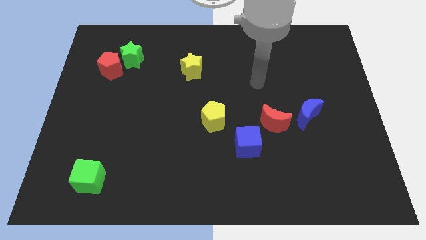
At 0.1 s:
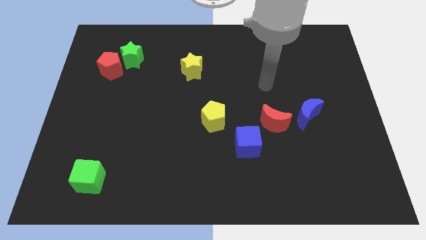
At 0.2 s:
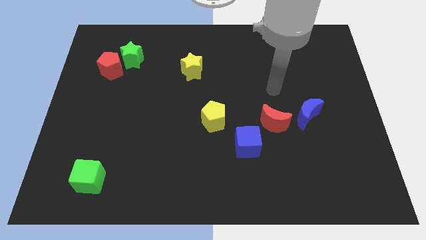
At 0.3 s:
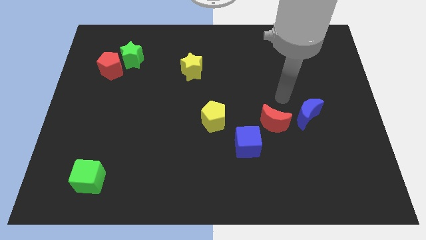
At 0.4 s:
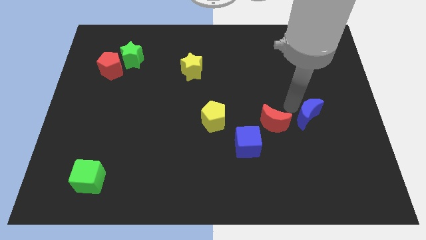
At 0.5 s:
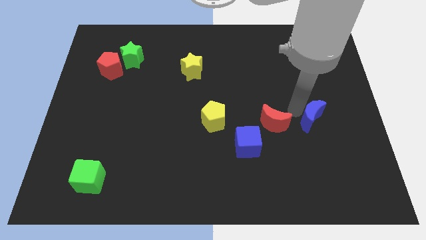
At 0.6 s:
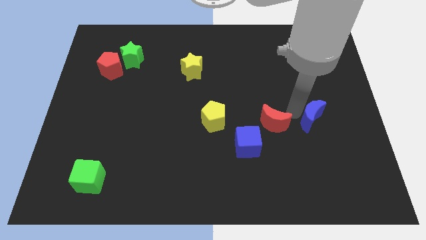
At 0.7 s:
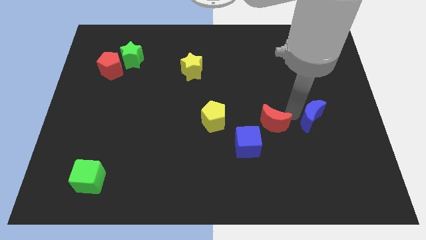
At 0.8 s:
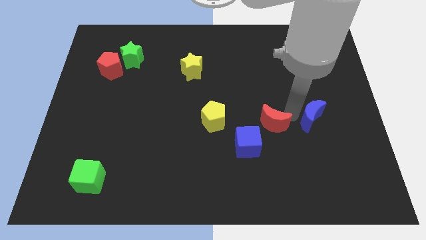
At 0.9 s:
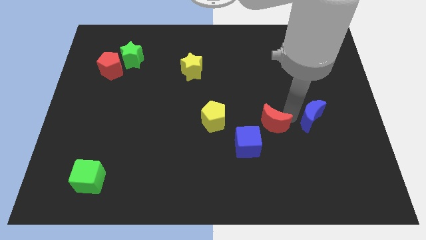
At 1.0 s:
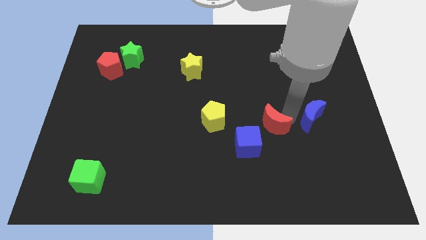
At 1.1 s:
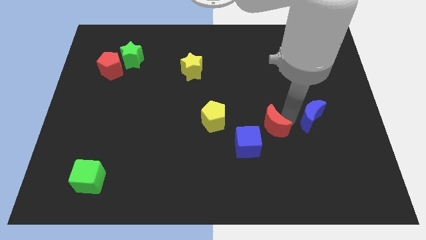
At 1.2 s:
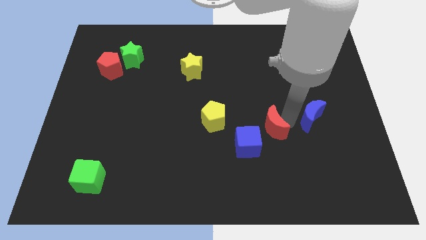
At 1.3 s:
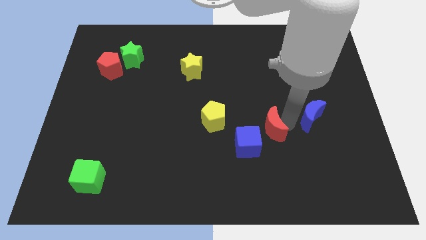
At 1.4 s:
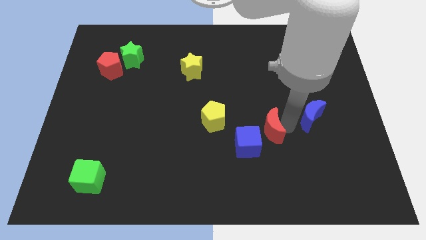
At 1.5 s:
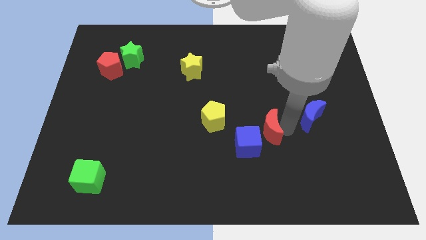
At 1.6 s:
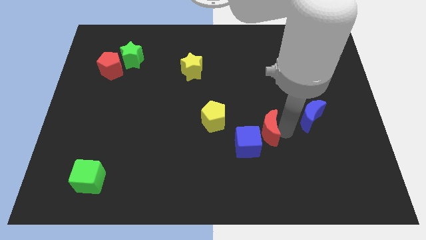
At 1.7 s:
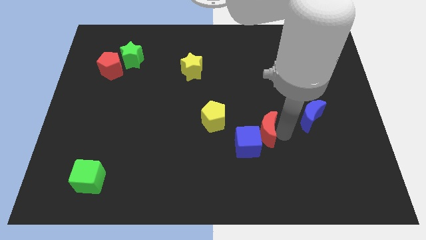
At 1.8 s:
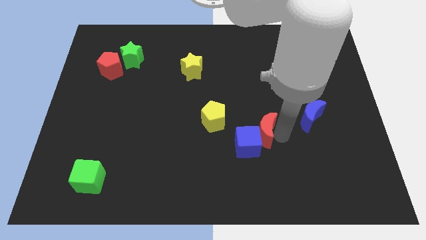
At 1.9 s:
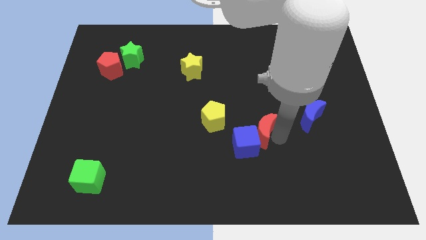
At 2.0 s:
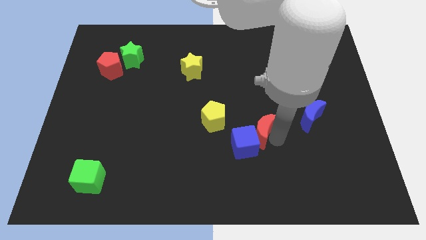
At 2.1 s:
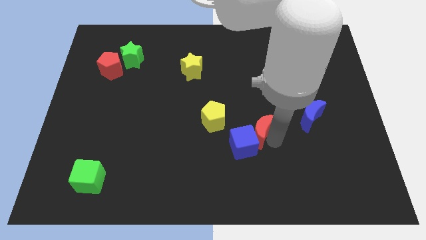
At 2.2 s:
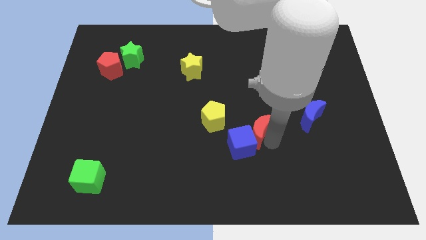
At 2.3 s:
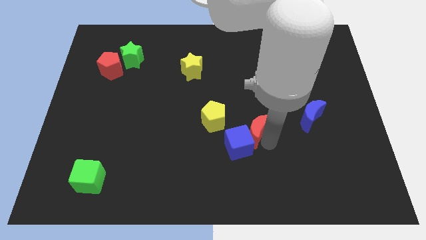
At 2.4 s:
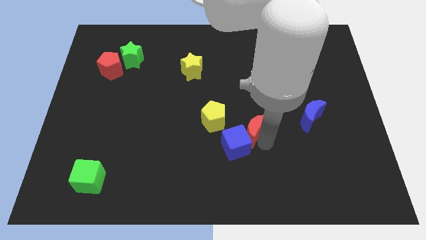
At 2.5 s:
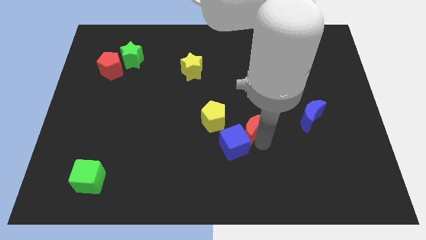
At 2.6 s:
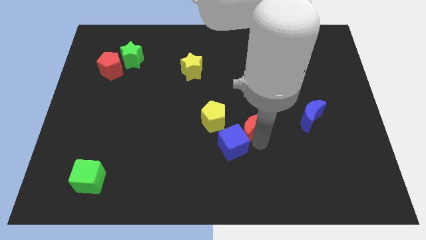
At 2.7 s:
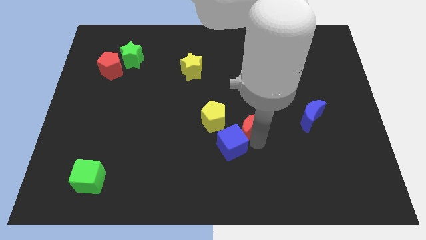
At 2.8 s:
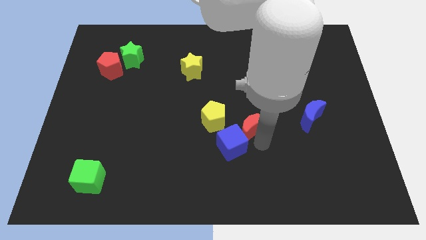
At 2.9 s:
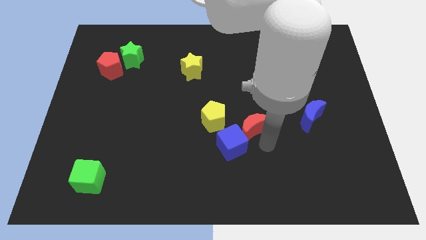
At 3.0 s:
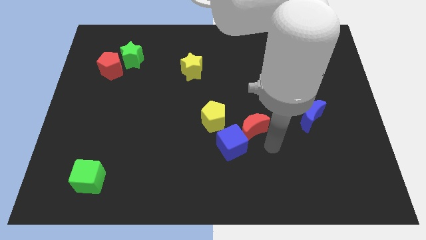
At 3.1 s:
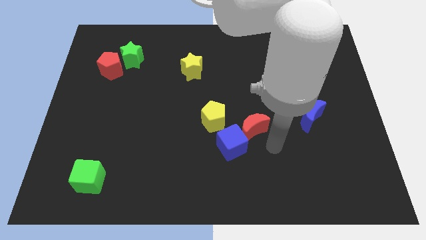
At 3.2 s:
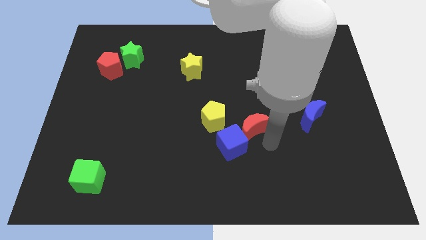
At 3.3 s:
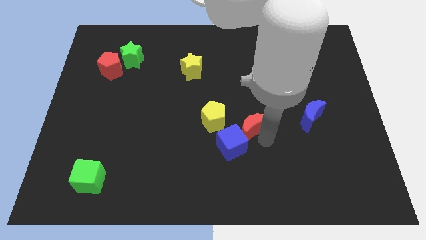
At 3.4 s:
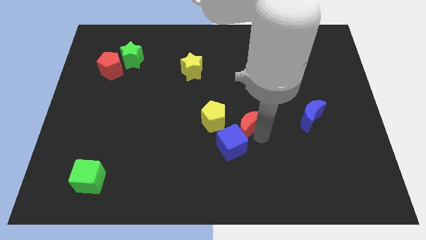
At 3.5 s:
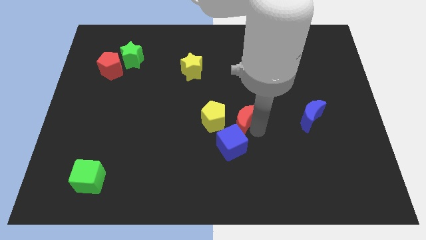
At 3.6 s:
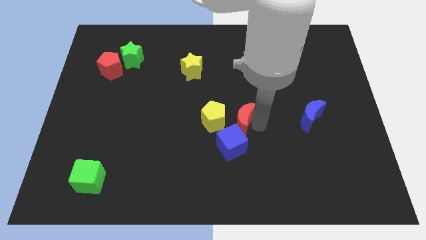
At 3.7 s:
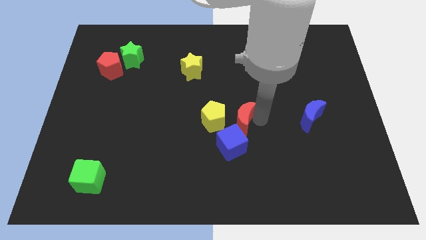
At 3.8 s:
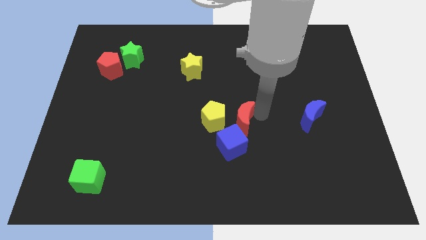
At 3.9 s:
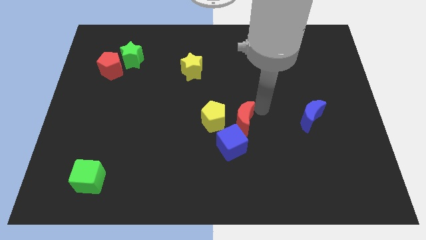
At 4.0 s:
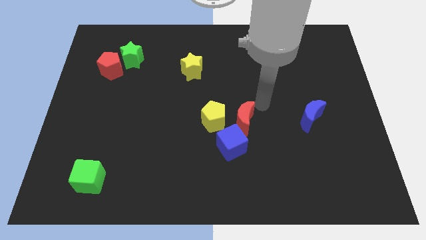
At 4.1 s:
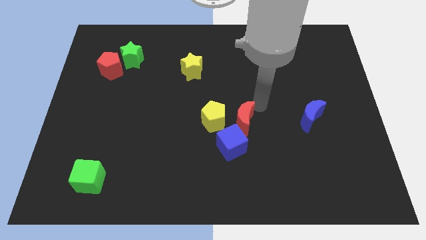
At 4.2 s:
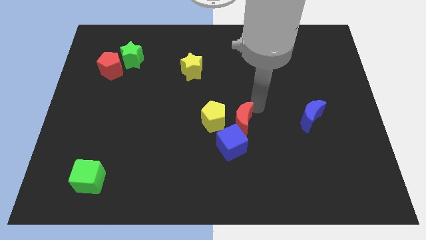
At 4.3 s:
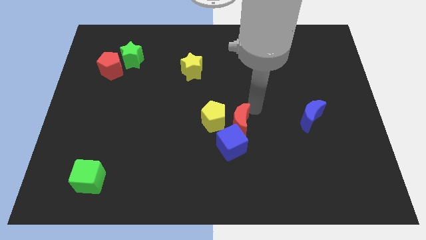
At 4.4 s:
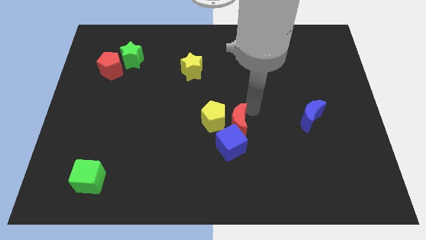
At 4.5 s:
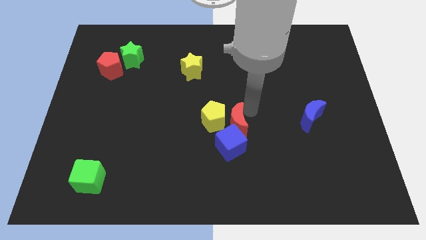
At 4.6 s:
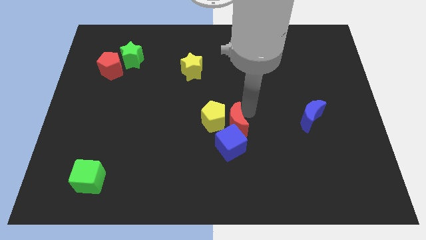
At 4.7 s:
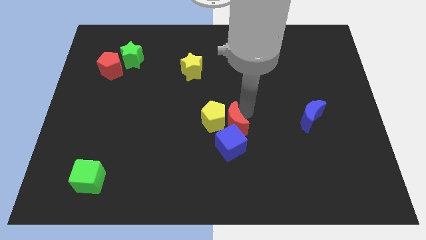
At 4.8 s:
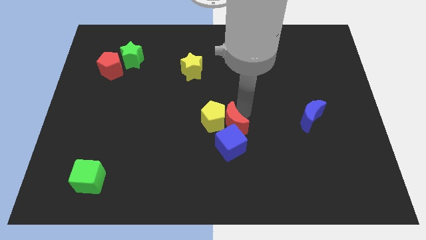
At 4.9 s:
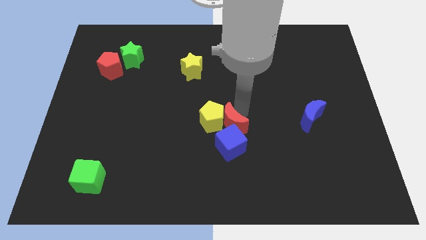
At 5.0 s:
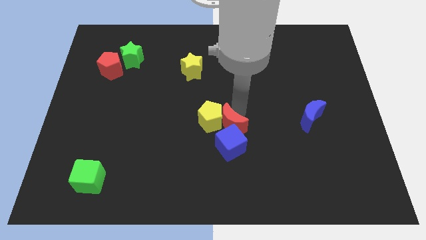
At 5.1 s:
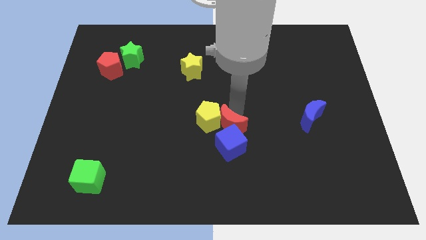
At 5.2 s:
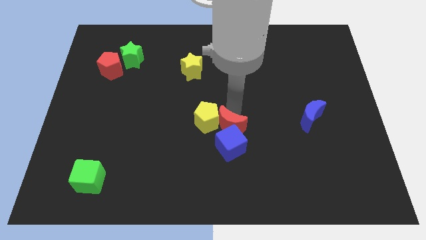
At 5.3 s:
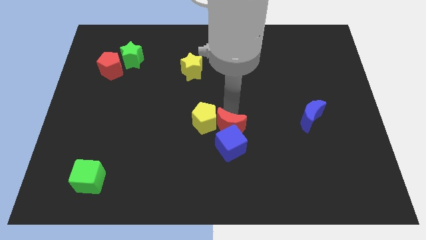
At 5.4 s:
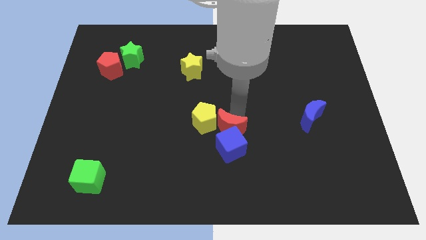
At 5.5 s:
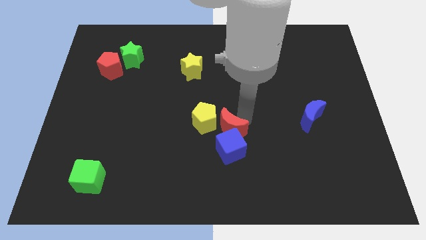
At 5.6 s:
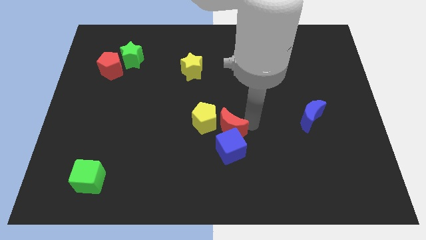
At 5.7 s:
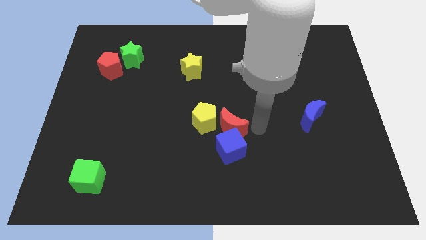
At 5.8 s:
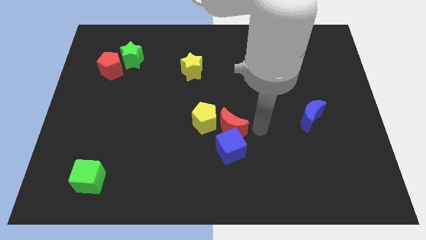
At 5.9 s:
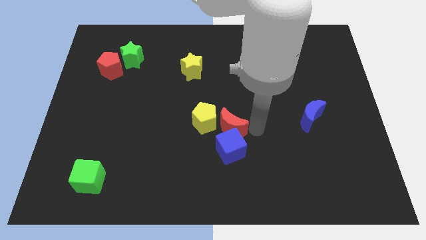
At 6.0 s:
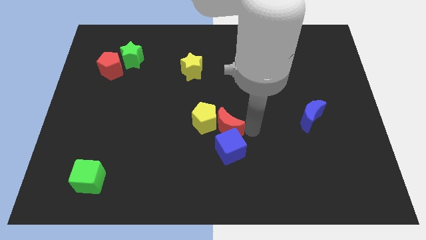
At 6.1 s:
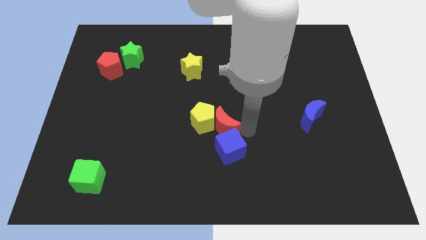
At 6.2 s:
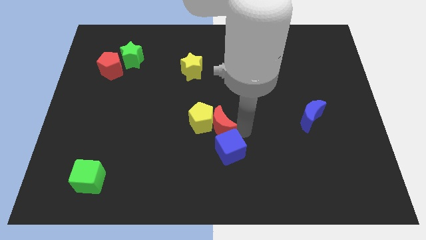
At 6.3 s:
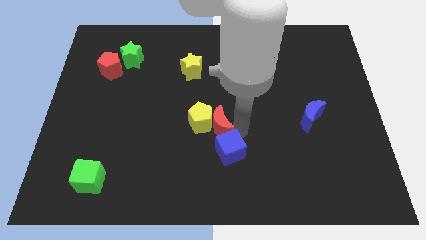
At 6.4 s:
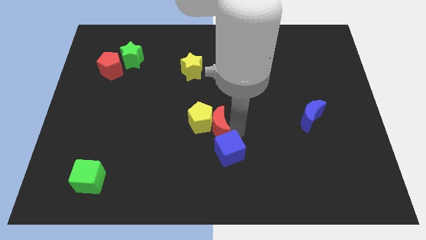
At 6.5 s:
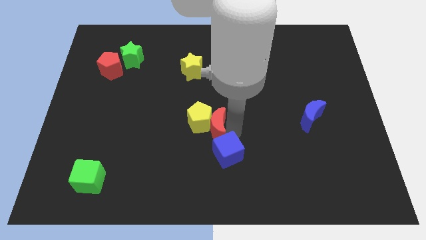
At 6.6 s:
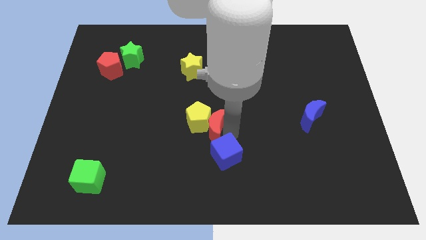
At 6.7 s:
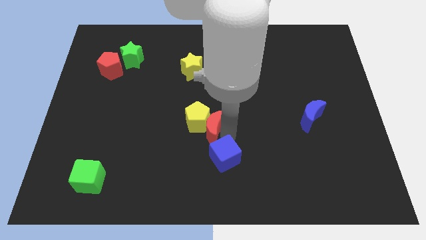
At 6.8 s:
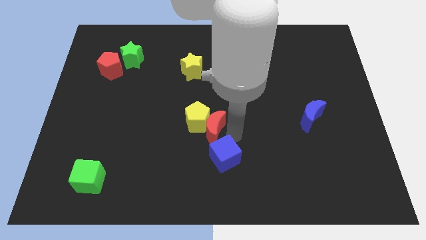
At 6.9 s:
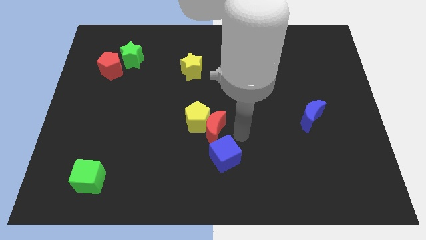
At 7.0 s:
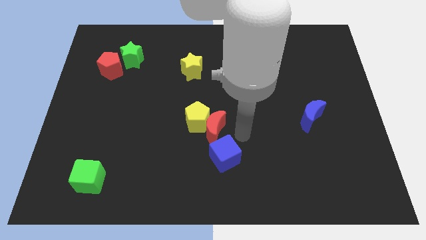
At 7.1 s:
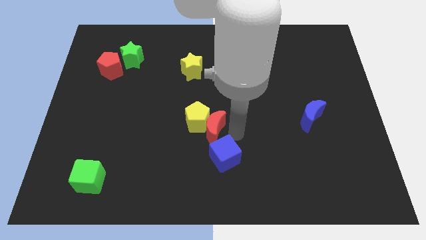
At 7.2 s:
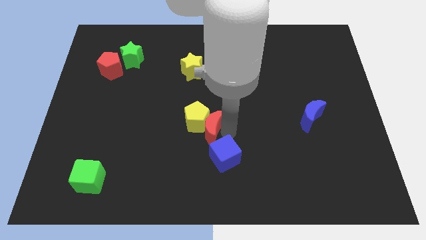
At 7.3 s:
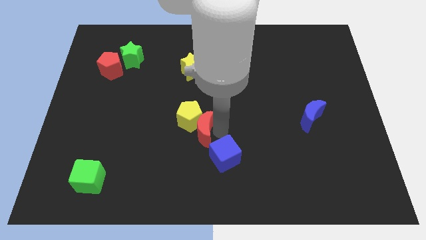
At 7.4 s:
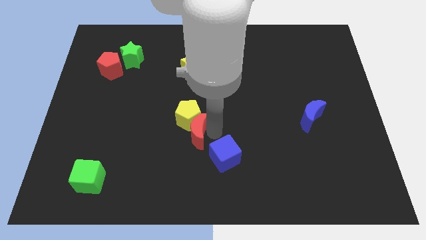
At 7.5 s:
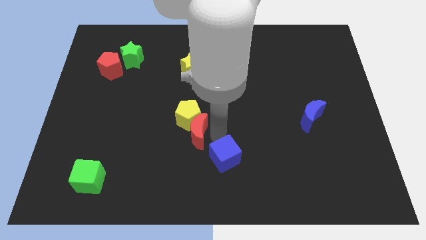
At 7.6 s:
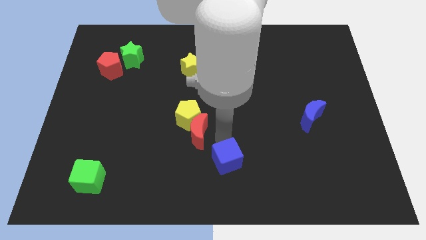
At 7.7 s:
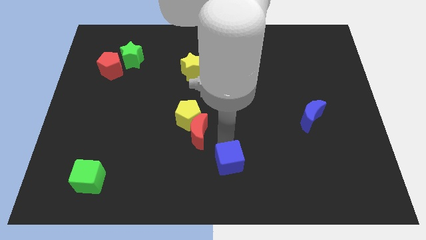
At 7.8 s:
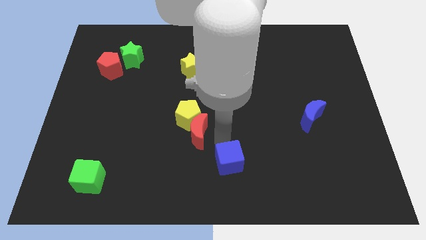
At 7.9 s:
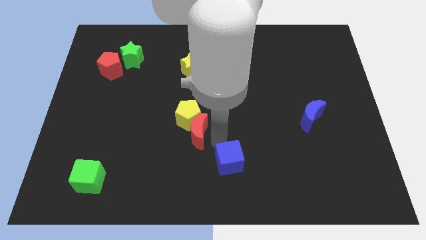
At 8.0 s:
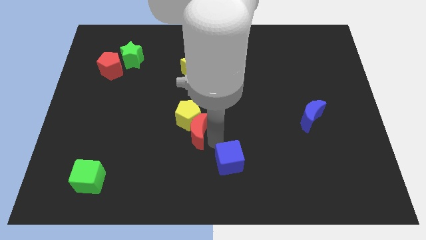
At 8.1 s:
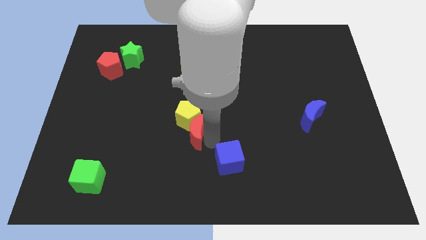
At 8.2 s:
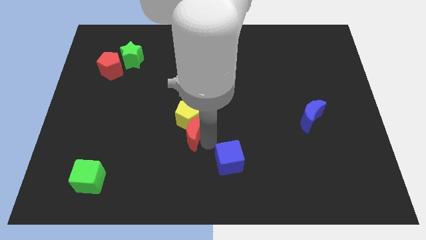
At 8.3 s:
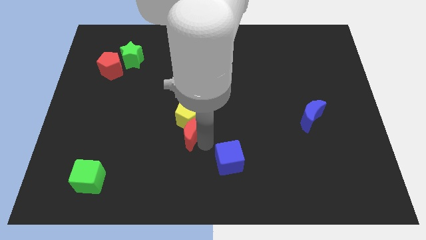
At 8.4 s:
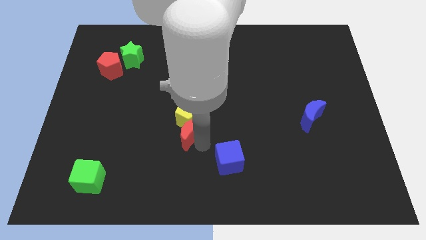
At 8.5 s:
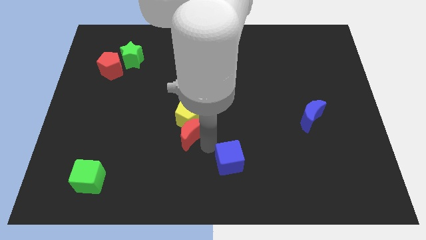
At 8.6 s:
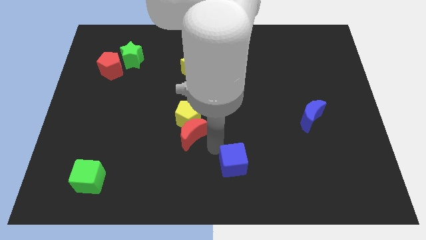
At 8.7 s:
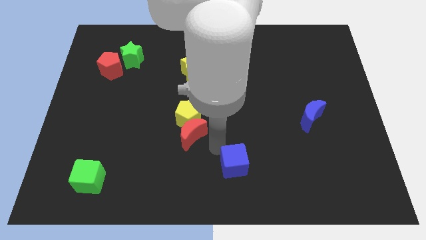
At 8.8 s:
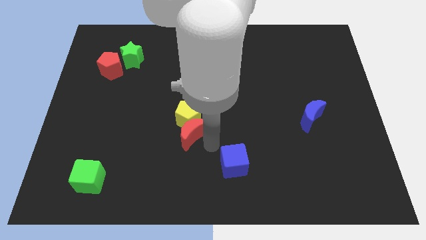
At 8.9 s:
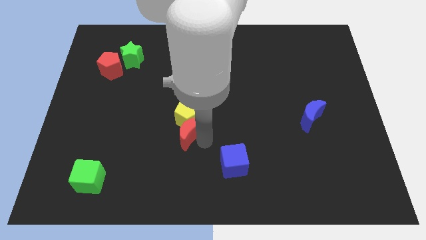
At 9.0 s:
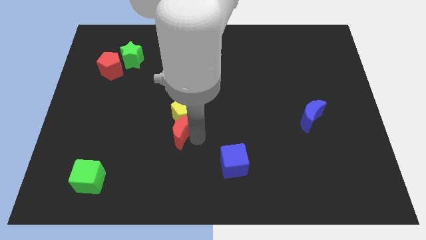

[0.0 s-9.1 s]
move the red moon to the left
